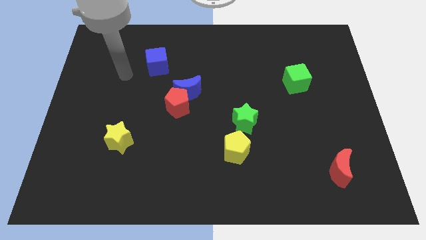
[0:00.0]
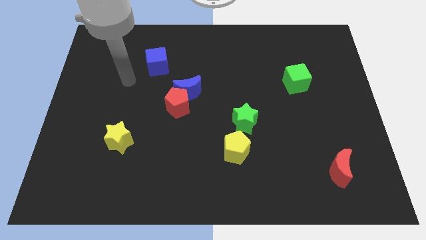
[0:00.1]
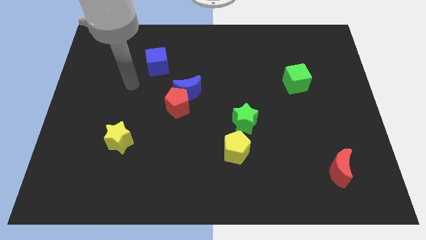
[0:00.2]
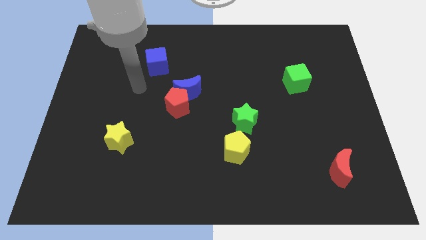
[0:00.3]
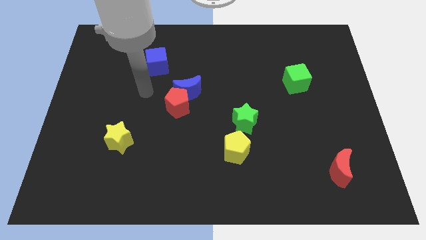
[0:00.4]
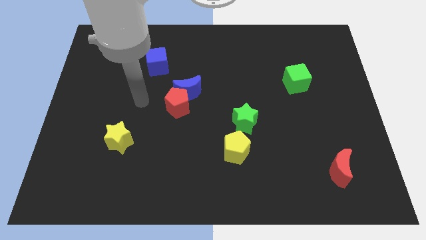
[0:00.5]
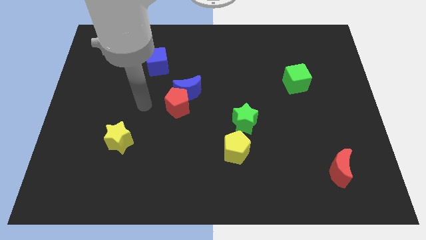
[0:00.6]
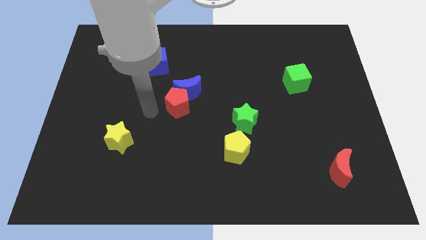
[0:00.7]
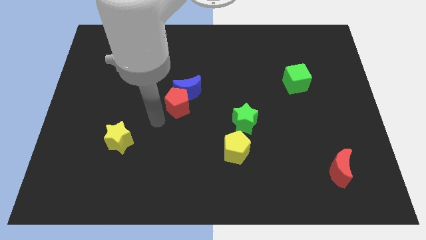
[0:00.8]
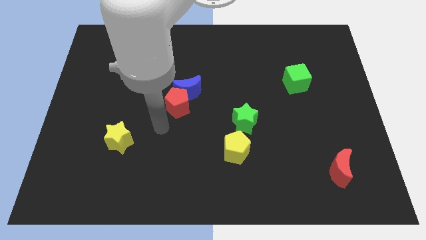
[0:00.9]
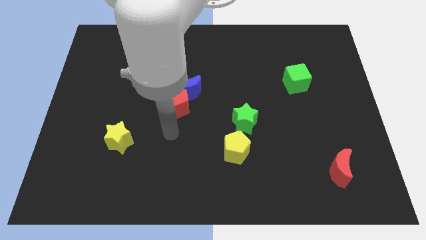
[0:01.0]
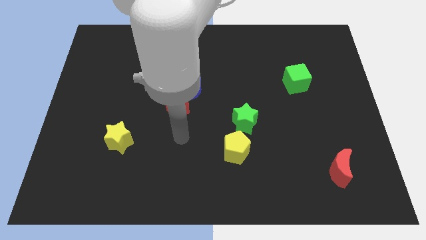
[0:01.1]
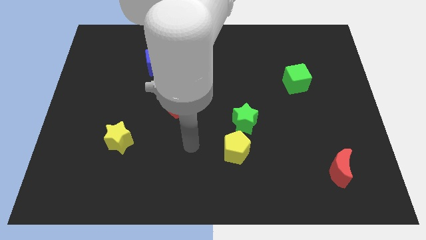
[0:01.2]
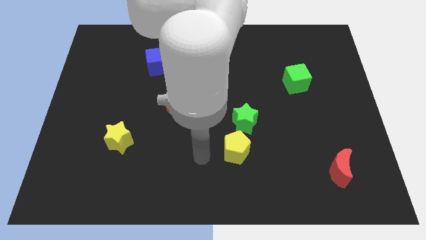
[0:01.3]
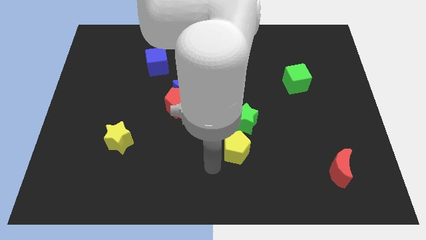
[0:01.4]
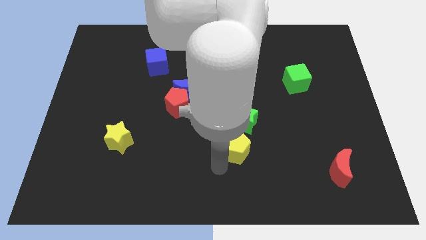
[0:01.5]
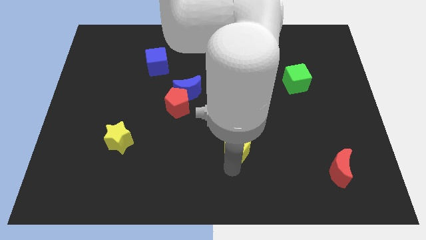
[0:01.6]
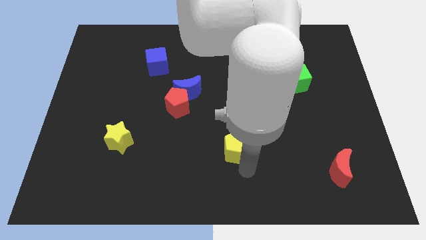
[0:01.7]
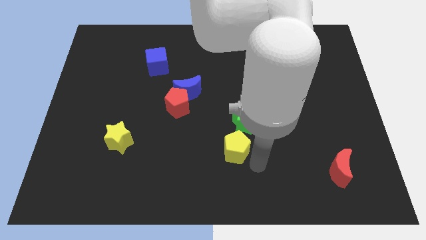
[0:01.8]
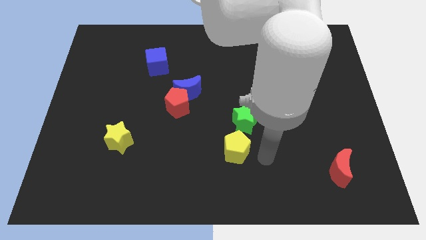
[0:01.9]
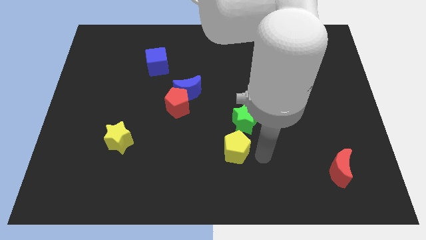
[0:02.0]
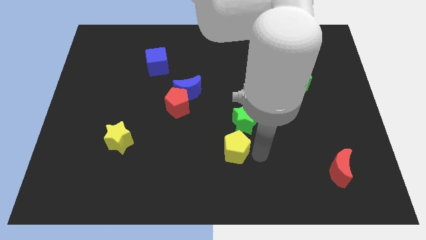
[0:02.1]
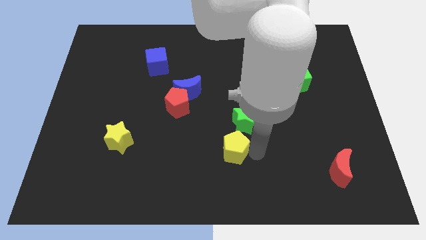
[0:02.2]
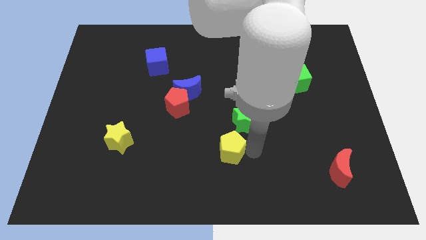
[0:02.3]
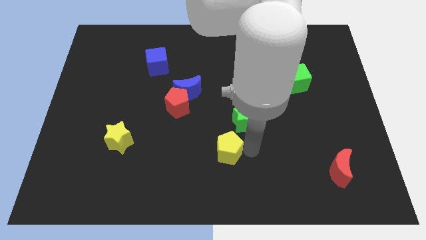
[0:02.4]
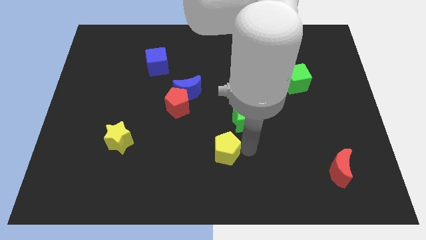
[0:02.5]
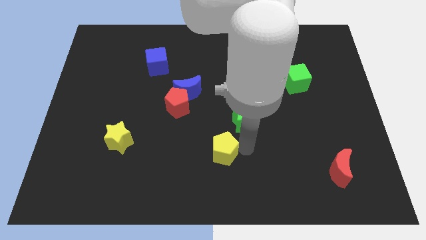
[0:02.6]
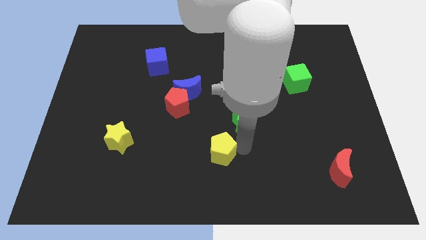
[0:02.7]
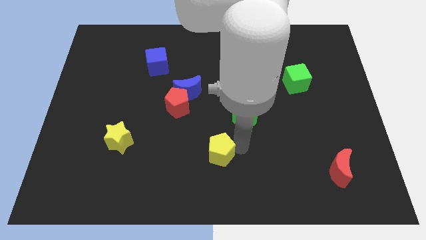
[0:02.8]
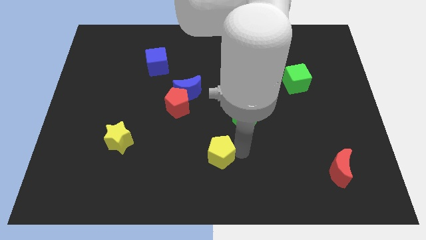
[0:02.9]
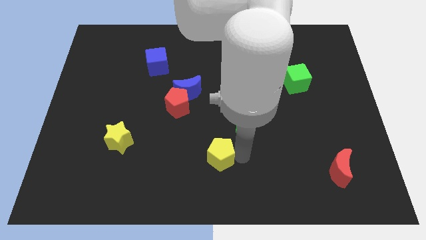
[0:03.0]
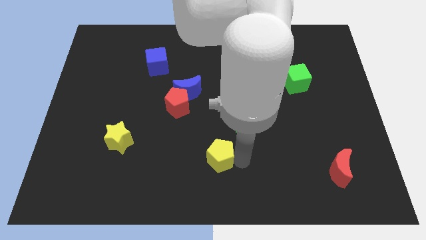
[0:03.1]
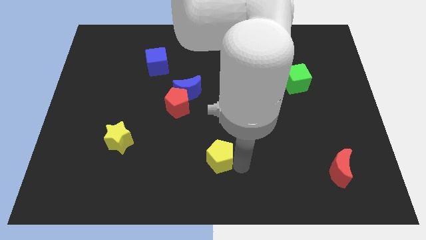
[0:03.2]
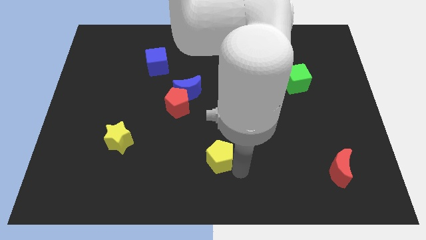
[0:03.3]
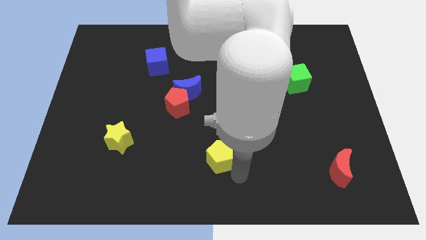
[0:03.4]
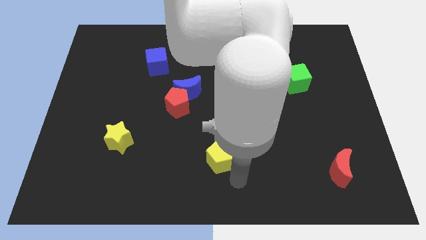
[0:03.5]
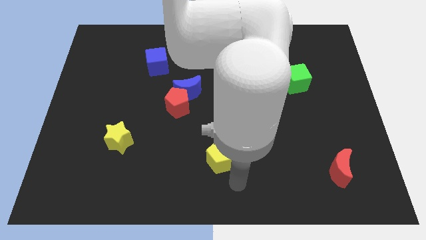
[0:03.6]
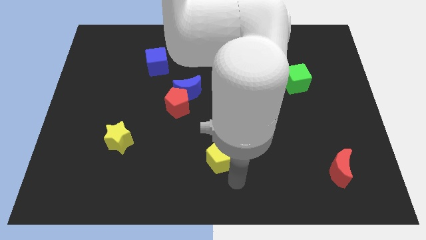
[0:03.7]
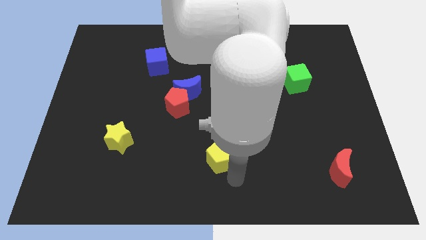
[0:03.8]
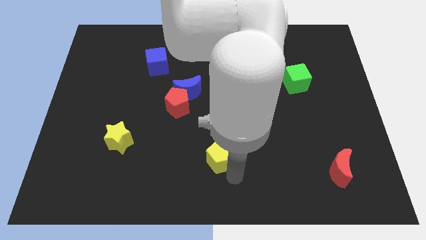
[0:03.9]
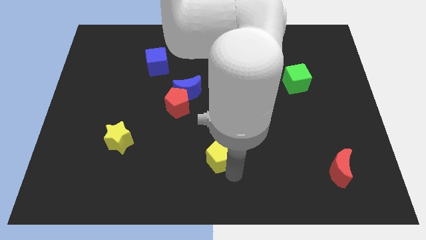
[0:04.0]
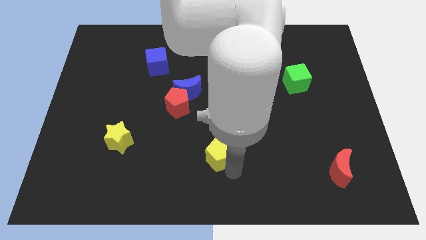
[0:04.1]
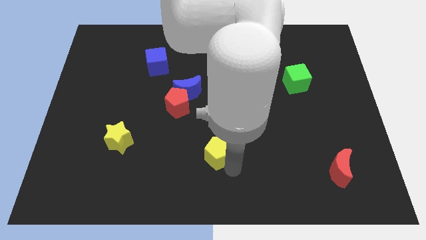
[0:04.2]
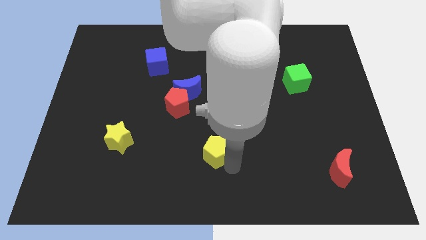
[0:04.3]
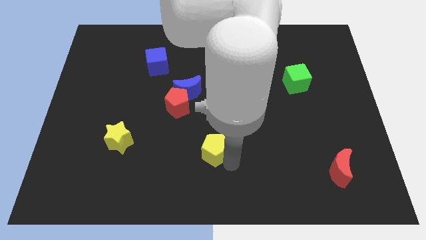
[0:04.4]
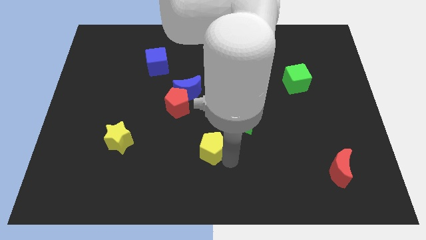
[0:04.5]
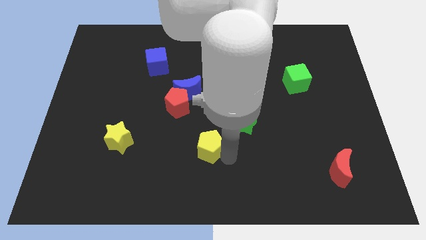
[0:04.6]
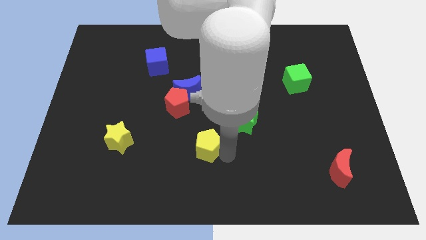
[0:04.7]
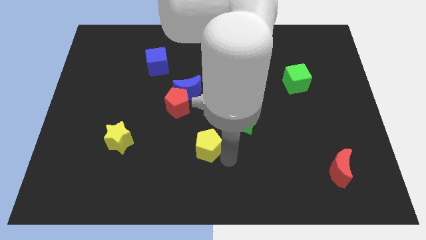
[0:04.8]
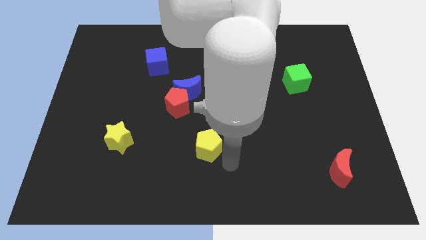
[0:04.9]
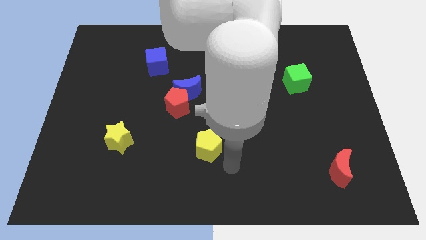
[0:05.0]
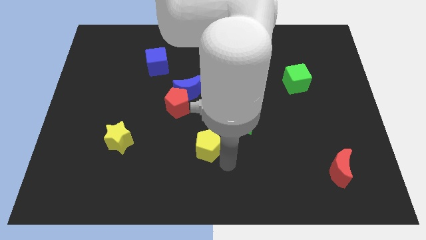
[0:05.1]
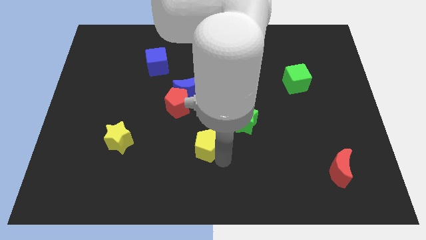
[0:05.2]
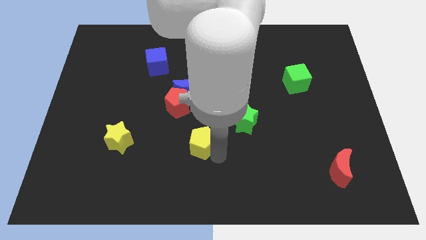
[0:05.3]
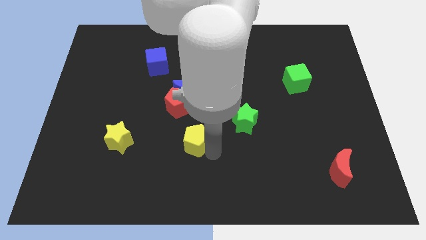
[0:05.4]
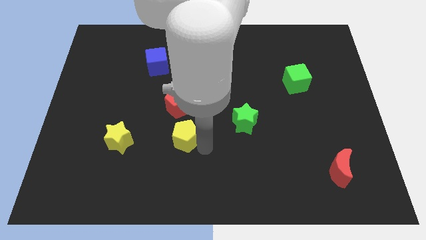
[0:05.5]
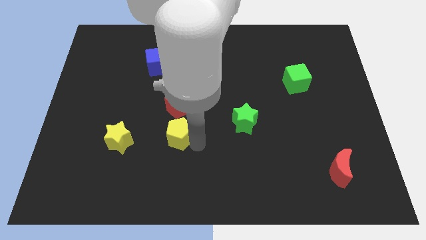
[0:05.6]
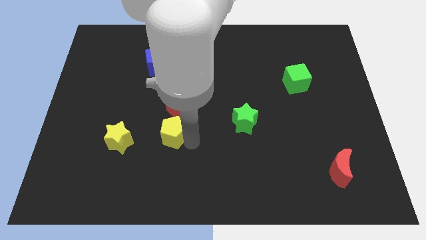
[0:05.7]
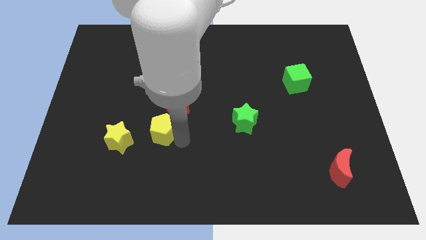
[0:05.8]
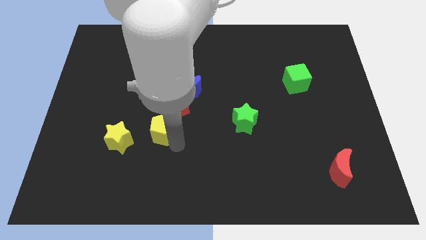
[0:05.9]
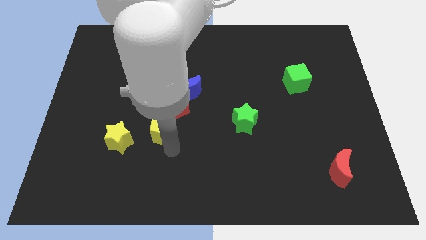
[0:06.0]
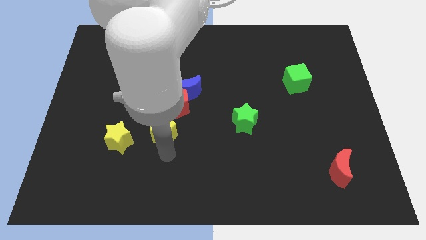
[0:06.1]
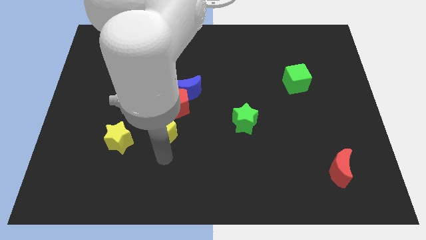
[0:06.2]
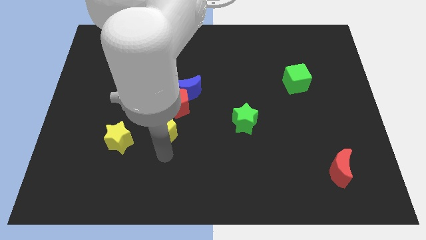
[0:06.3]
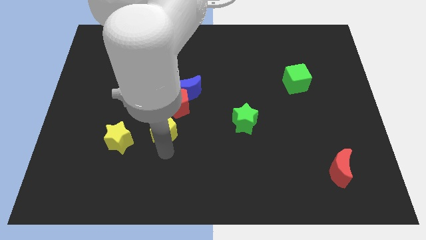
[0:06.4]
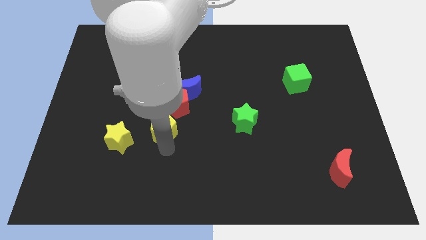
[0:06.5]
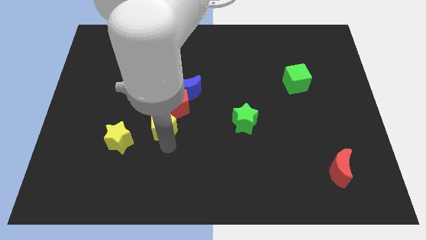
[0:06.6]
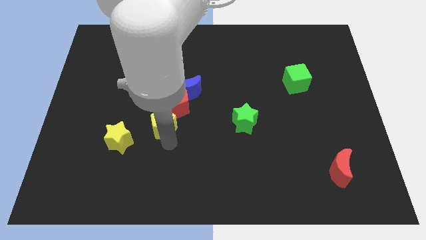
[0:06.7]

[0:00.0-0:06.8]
push the yellow pentagon to the bottom left of the blue moon
